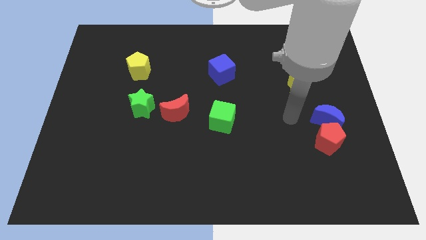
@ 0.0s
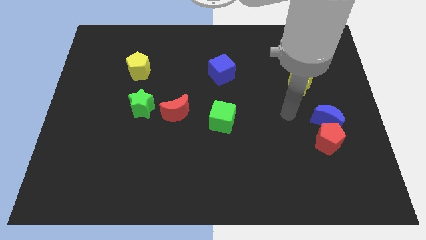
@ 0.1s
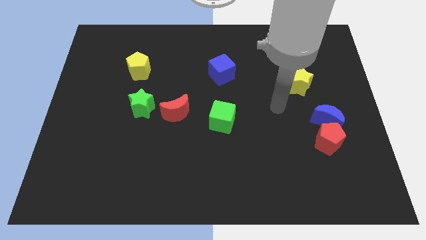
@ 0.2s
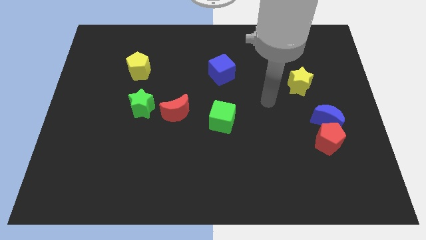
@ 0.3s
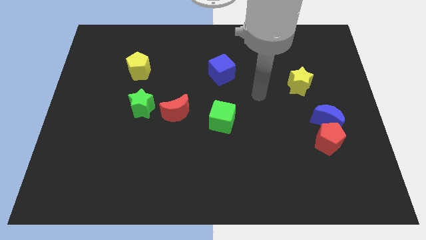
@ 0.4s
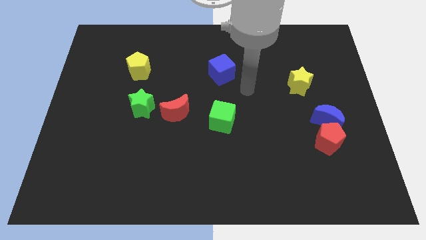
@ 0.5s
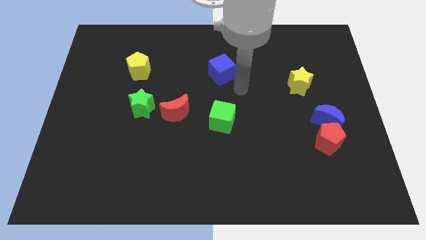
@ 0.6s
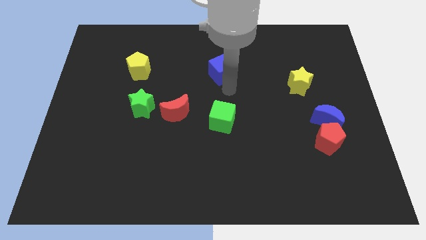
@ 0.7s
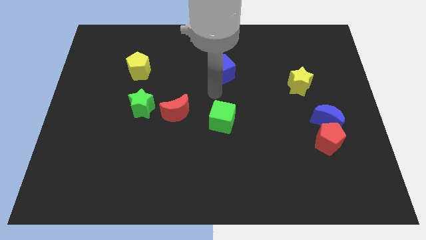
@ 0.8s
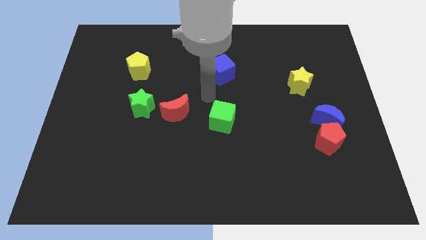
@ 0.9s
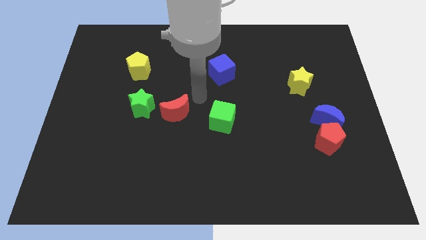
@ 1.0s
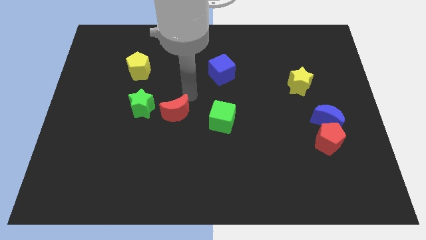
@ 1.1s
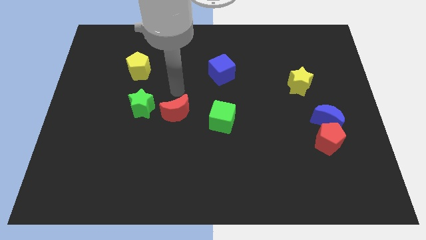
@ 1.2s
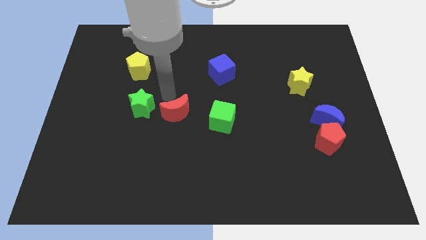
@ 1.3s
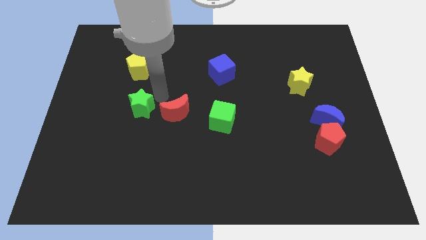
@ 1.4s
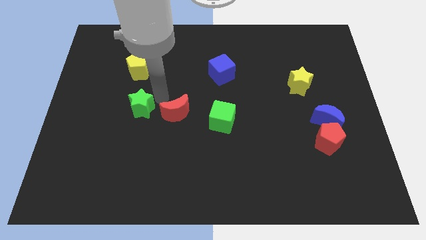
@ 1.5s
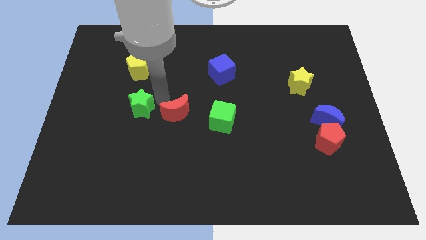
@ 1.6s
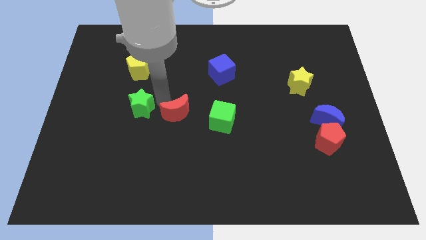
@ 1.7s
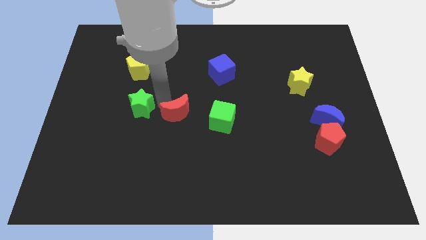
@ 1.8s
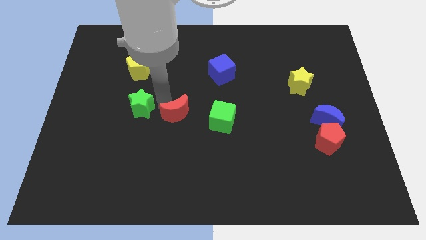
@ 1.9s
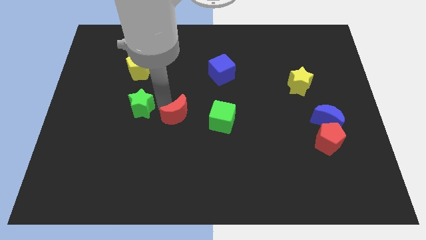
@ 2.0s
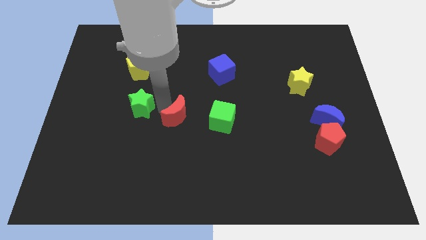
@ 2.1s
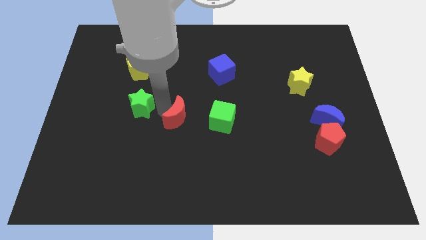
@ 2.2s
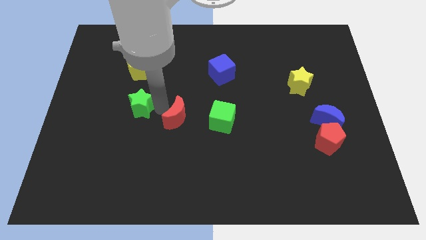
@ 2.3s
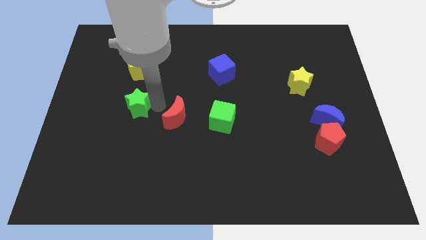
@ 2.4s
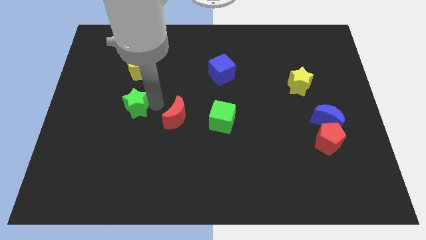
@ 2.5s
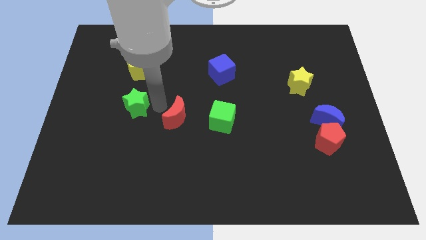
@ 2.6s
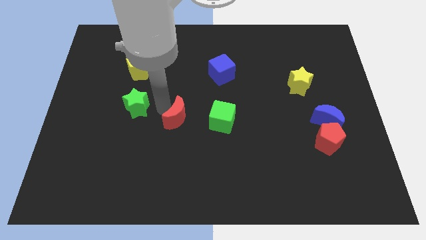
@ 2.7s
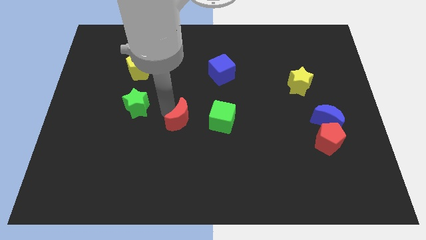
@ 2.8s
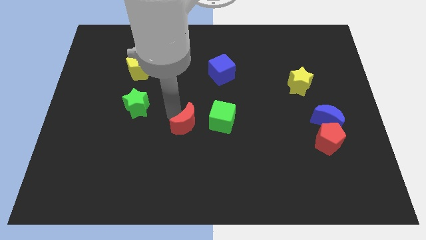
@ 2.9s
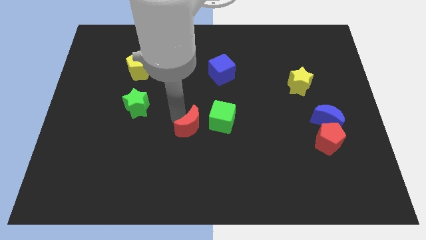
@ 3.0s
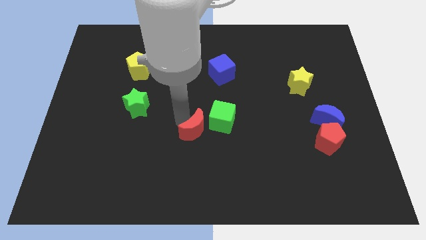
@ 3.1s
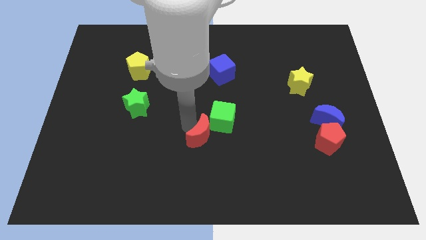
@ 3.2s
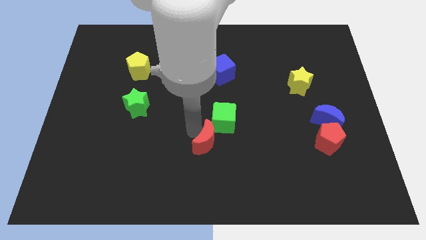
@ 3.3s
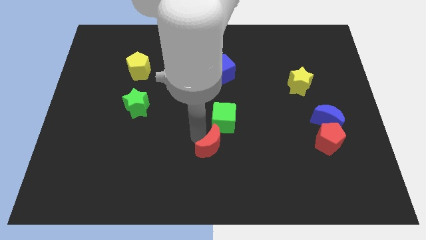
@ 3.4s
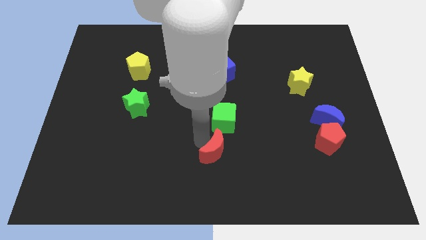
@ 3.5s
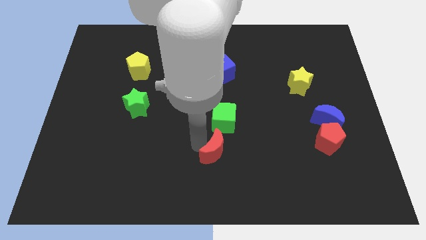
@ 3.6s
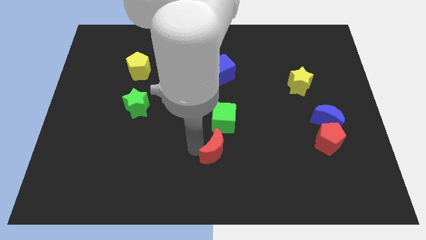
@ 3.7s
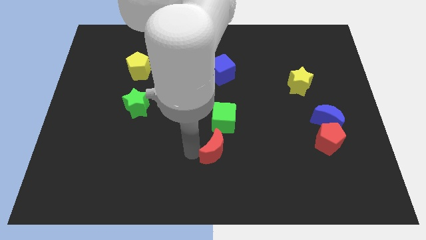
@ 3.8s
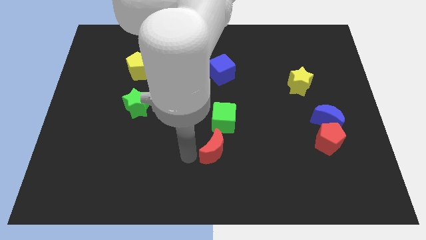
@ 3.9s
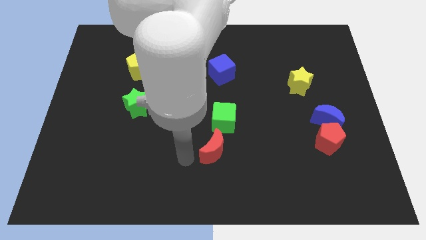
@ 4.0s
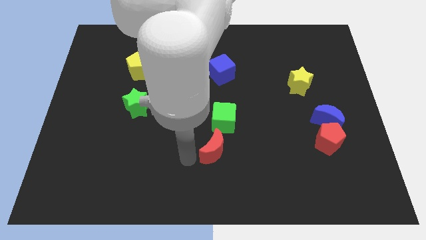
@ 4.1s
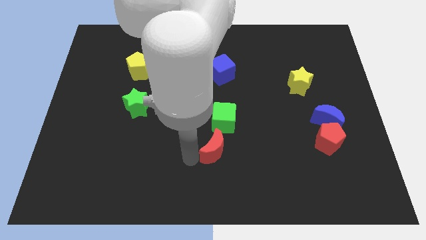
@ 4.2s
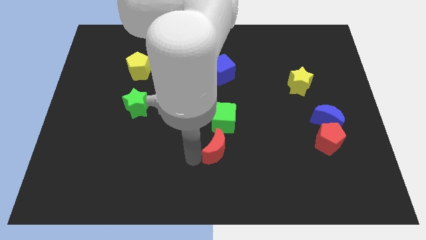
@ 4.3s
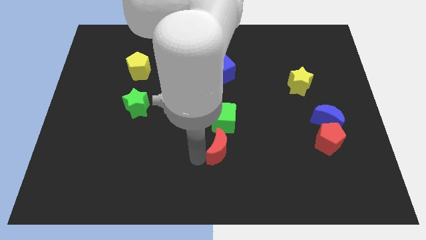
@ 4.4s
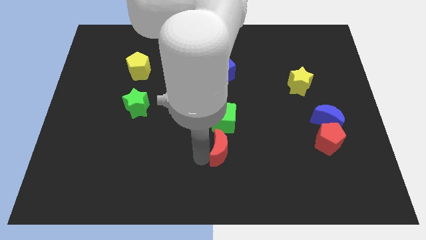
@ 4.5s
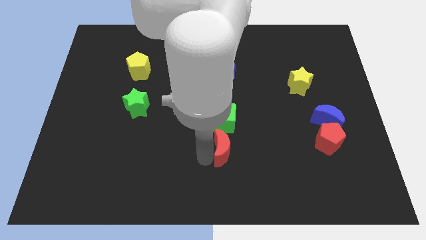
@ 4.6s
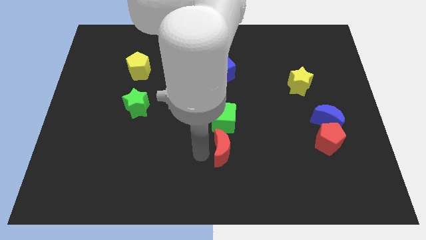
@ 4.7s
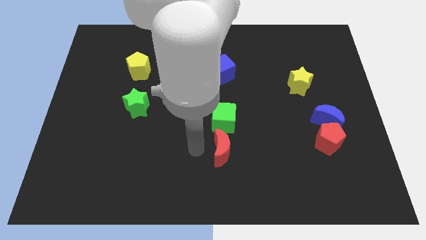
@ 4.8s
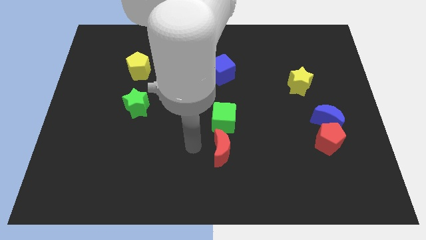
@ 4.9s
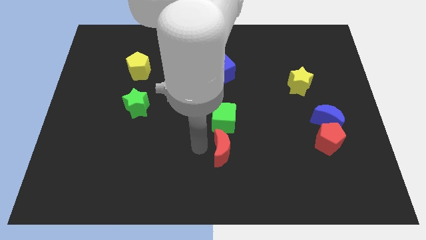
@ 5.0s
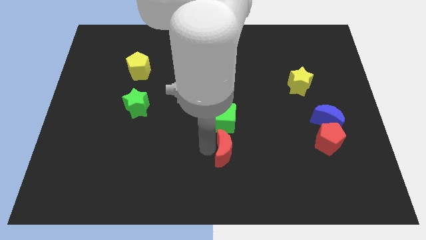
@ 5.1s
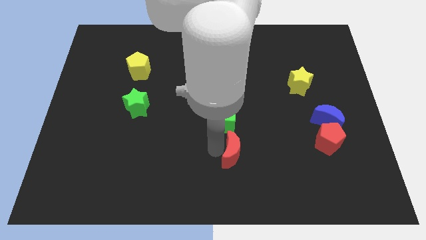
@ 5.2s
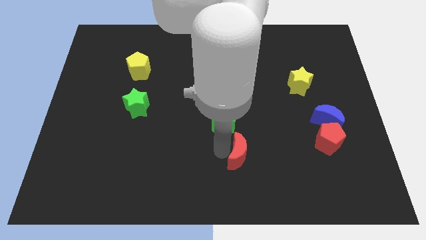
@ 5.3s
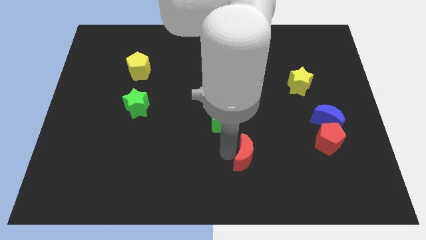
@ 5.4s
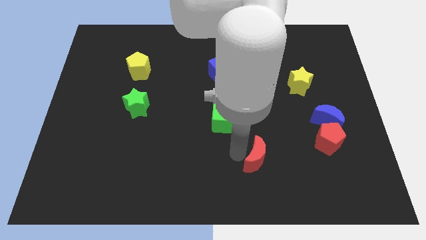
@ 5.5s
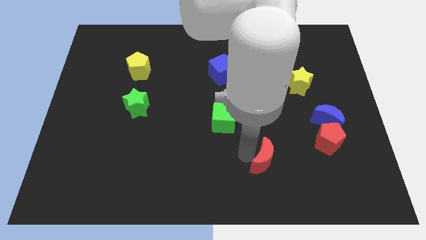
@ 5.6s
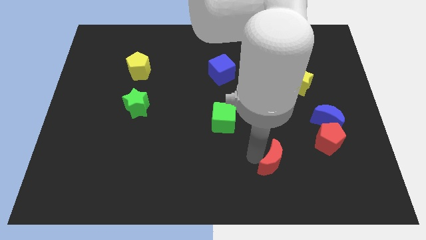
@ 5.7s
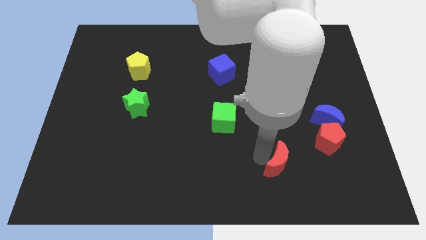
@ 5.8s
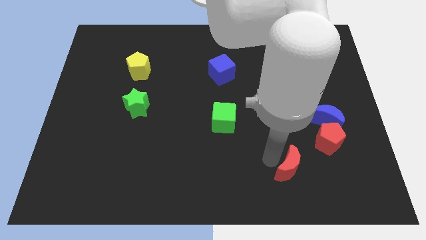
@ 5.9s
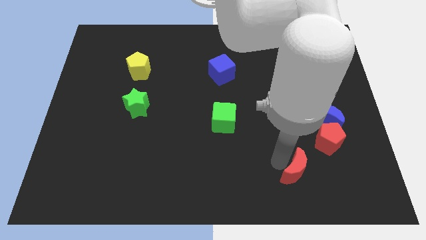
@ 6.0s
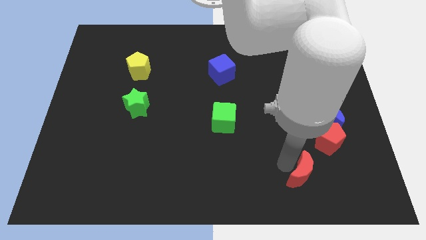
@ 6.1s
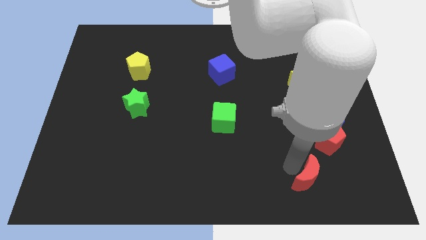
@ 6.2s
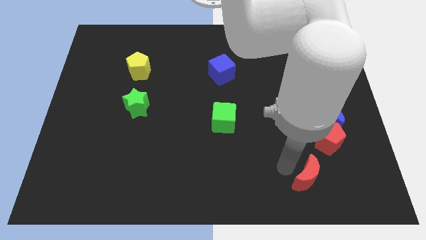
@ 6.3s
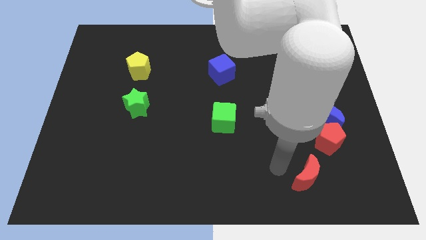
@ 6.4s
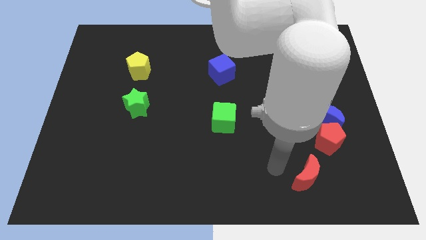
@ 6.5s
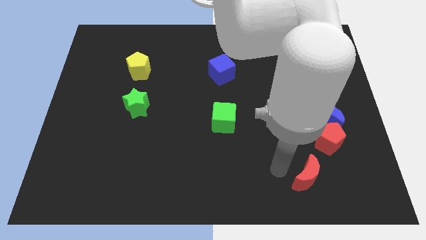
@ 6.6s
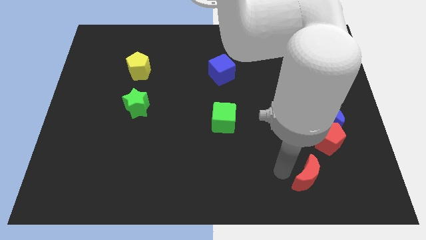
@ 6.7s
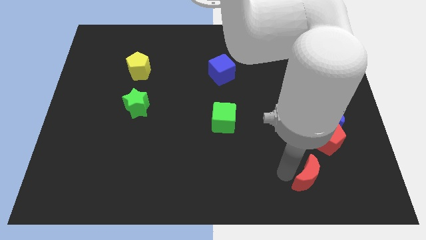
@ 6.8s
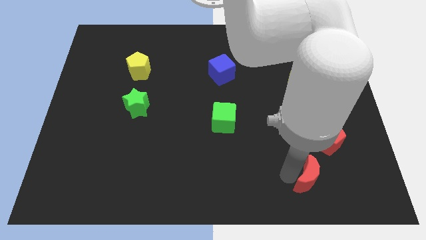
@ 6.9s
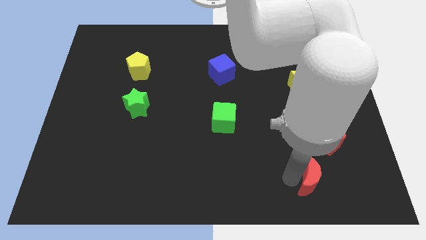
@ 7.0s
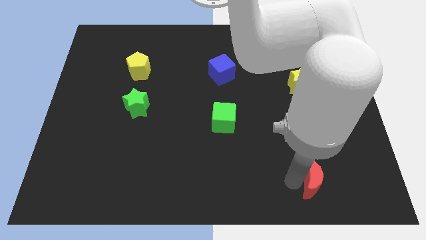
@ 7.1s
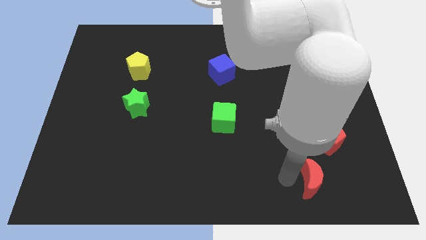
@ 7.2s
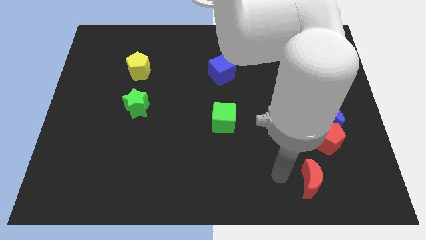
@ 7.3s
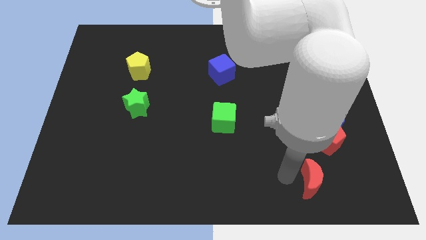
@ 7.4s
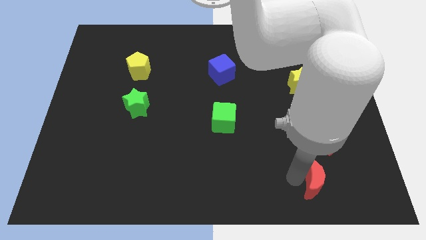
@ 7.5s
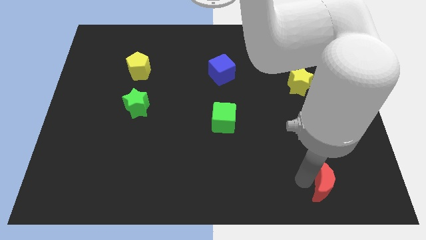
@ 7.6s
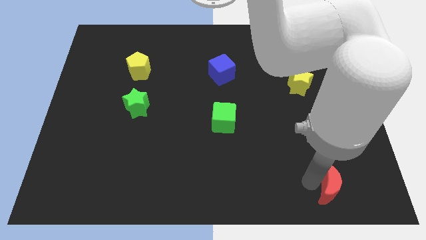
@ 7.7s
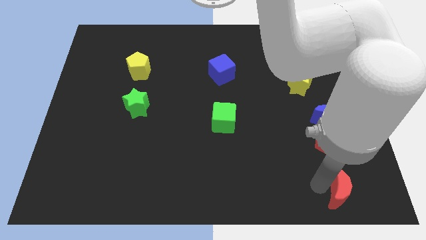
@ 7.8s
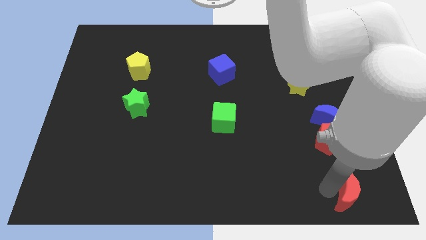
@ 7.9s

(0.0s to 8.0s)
put the red moon to the lower right corner
